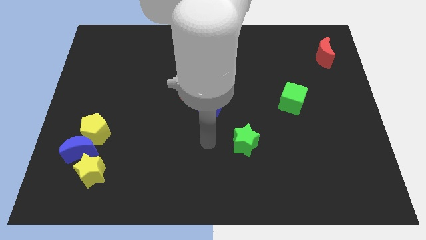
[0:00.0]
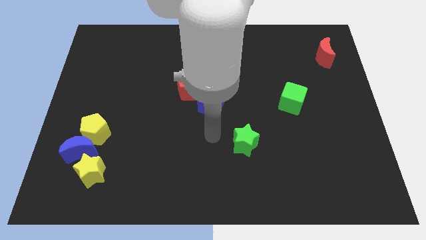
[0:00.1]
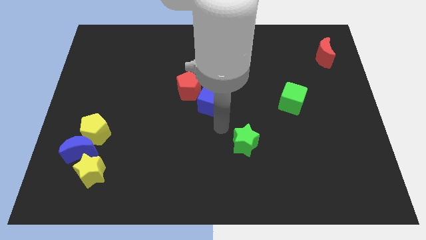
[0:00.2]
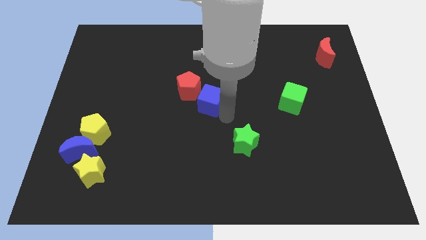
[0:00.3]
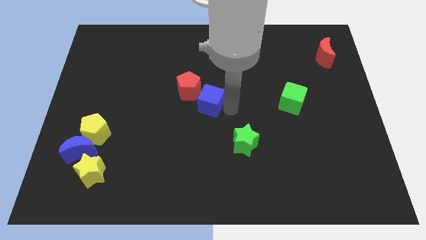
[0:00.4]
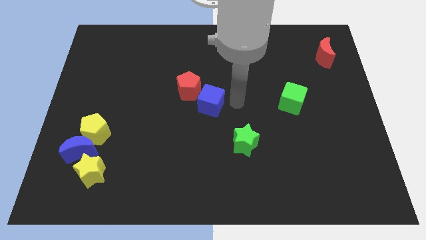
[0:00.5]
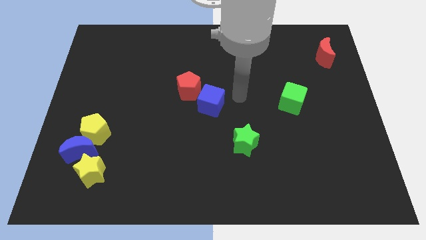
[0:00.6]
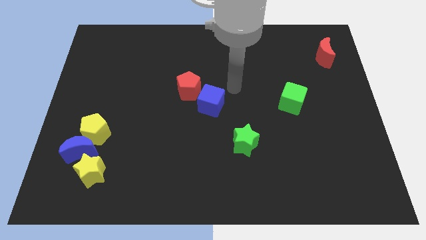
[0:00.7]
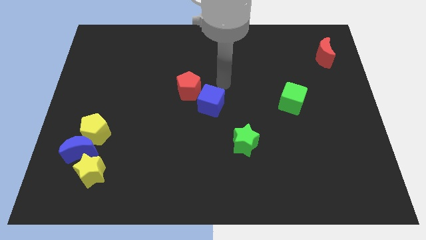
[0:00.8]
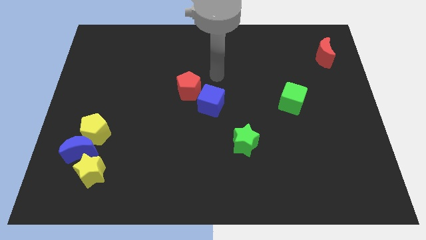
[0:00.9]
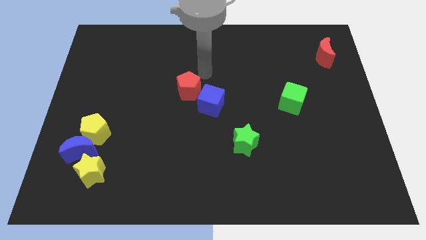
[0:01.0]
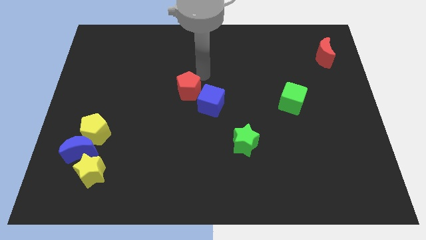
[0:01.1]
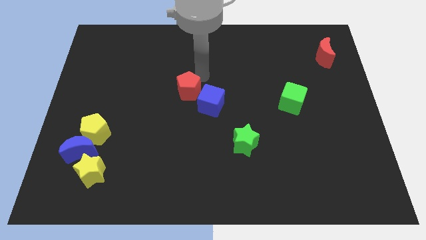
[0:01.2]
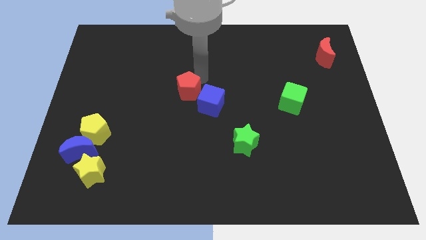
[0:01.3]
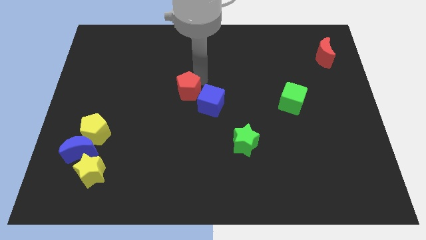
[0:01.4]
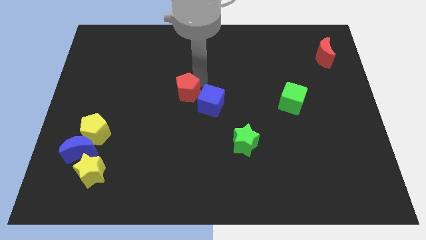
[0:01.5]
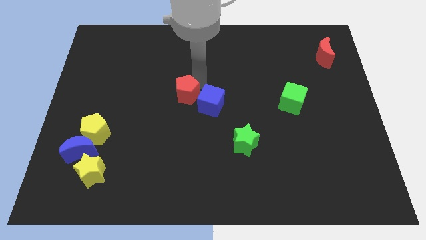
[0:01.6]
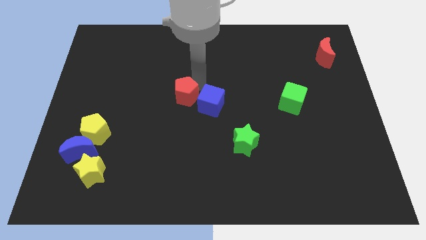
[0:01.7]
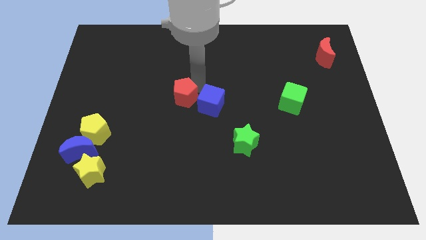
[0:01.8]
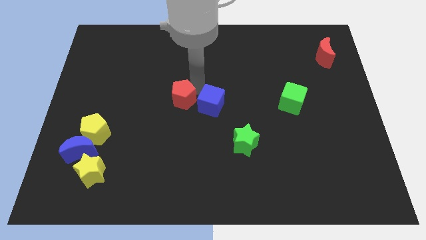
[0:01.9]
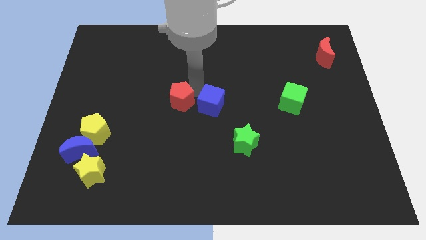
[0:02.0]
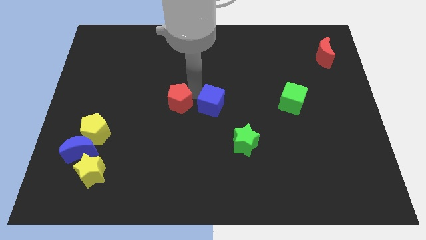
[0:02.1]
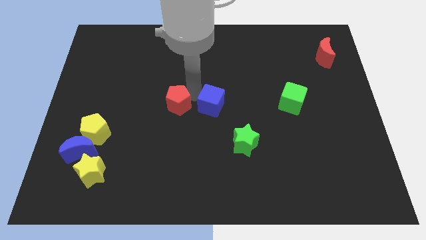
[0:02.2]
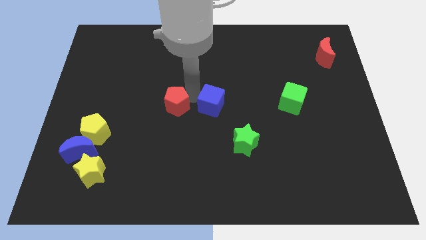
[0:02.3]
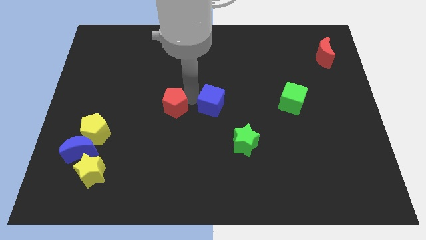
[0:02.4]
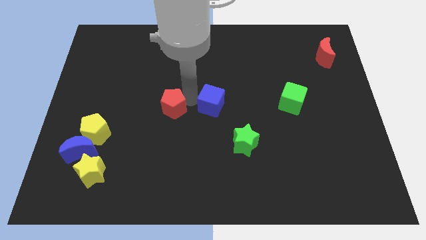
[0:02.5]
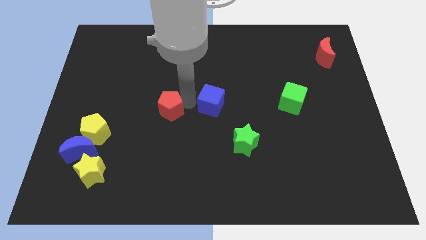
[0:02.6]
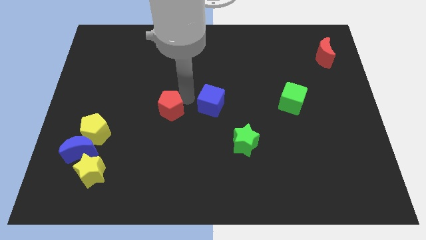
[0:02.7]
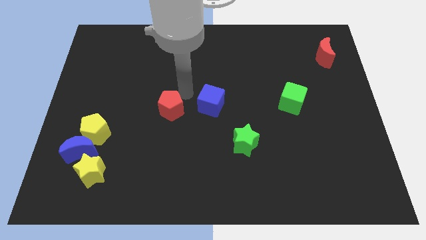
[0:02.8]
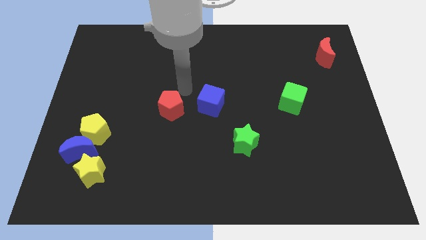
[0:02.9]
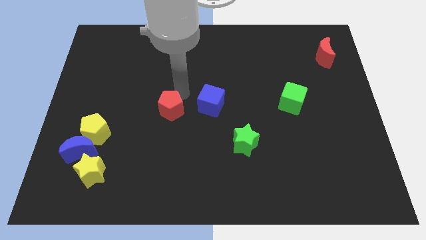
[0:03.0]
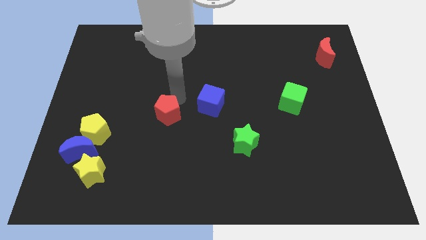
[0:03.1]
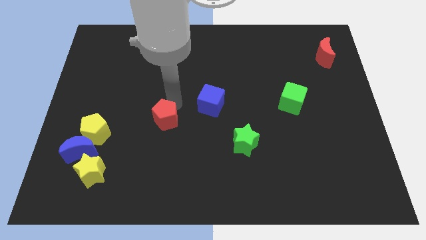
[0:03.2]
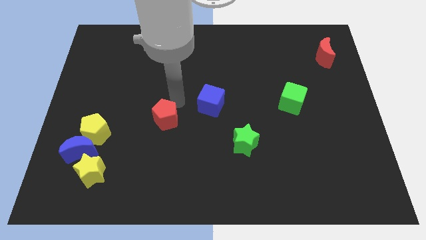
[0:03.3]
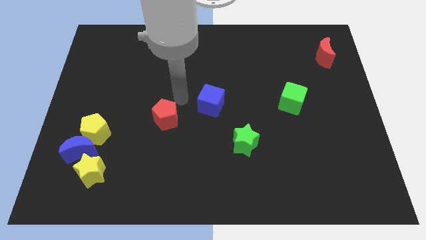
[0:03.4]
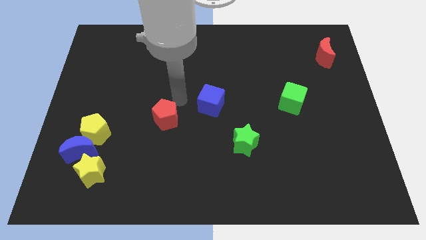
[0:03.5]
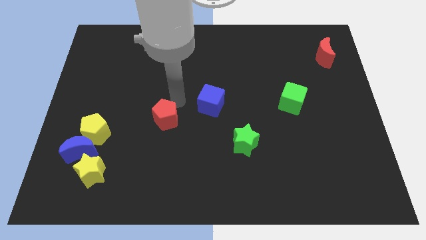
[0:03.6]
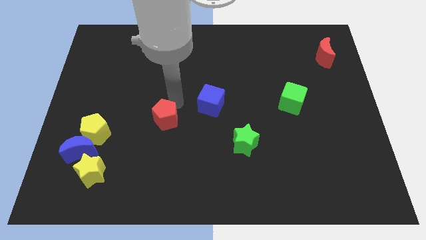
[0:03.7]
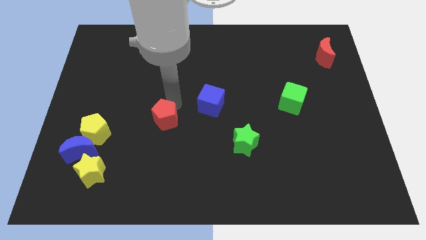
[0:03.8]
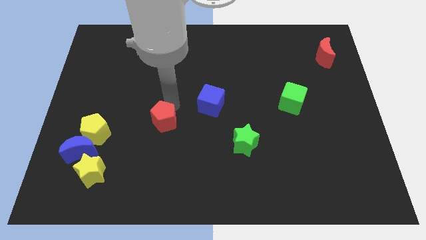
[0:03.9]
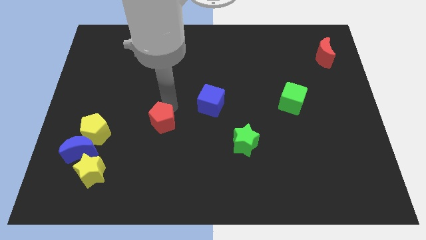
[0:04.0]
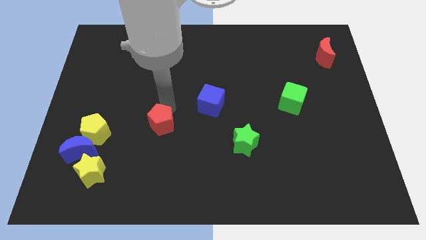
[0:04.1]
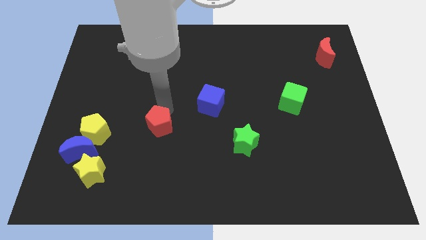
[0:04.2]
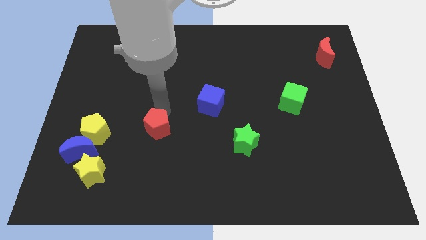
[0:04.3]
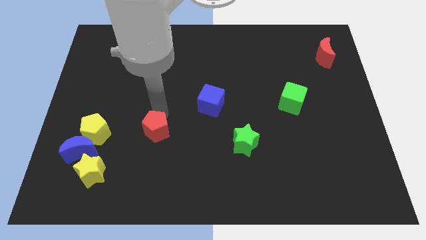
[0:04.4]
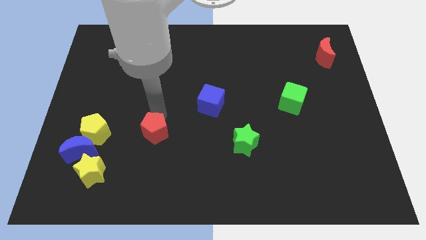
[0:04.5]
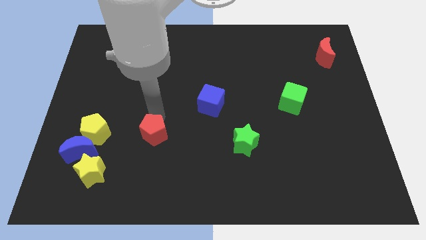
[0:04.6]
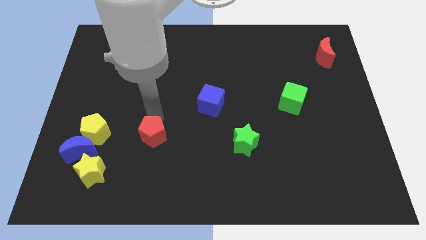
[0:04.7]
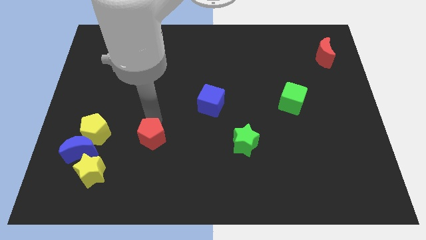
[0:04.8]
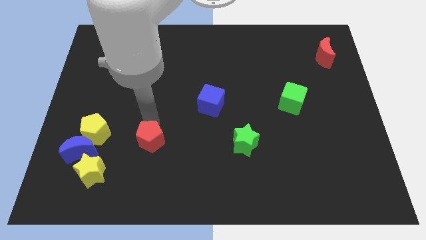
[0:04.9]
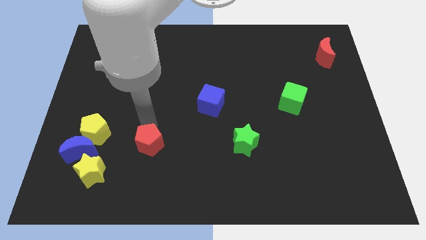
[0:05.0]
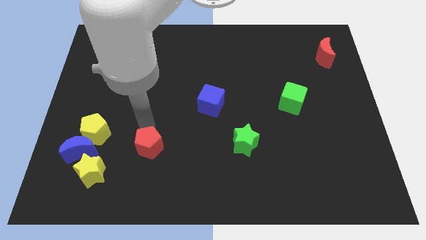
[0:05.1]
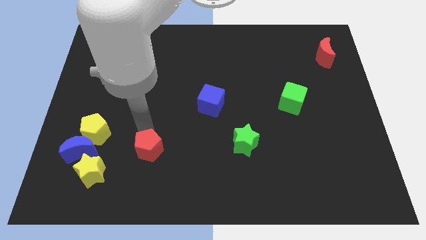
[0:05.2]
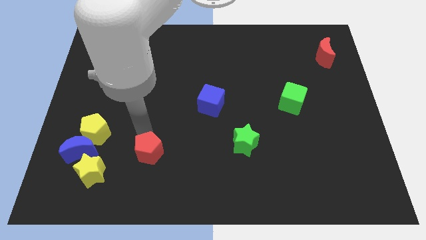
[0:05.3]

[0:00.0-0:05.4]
slide the red pentagon right of the yellow star

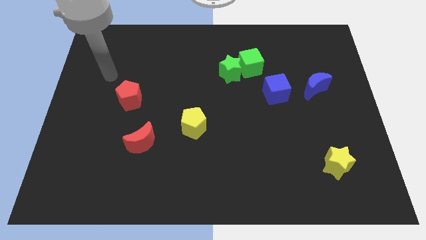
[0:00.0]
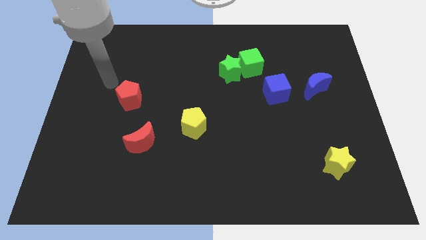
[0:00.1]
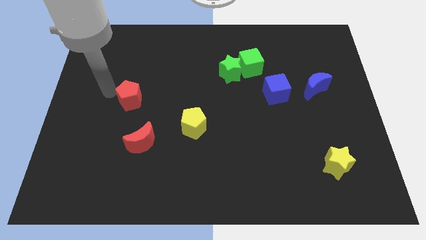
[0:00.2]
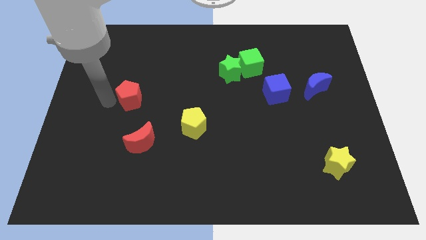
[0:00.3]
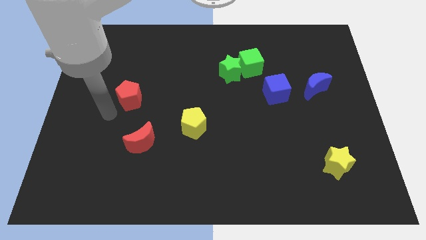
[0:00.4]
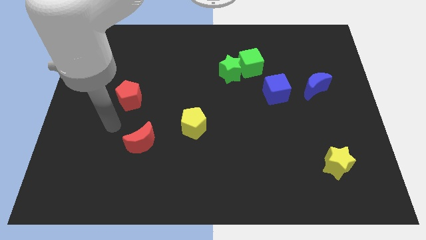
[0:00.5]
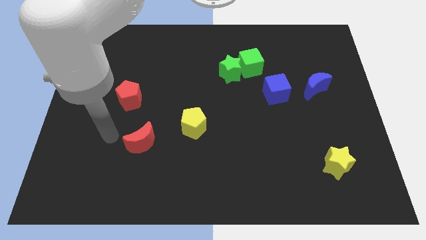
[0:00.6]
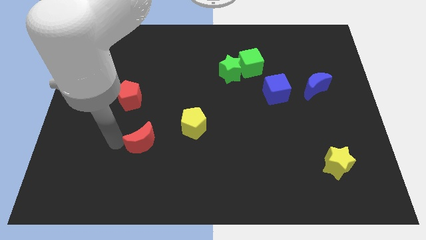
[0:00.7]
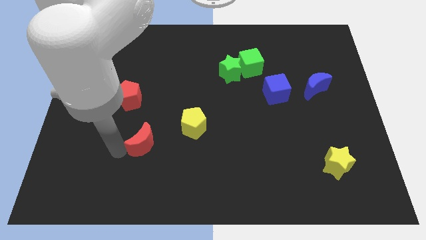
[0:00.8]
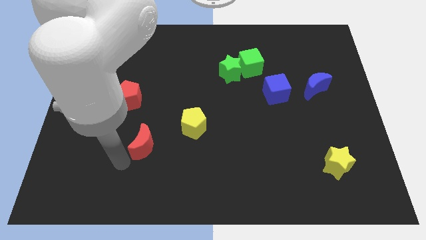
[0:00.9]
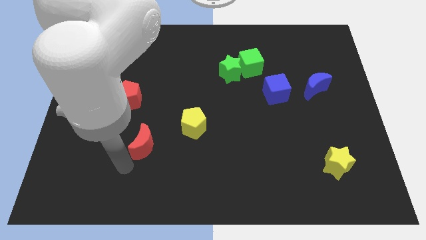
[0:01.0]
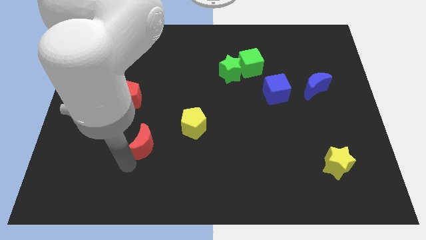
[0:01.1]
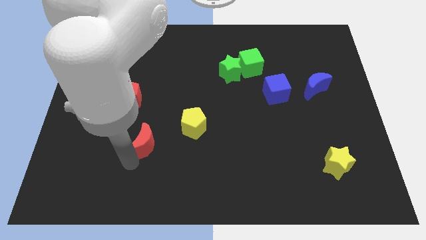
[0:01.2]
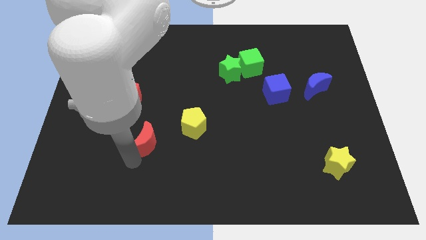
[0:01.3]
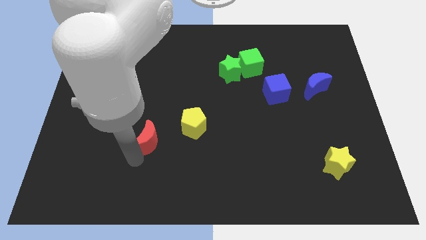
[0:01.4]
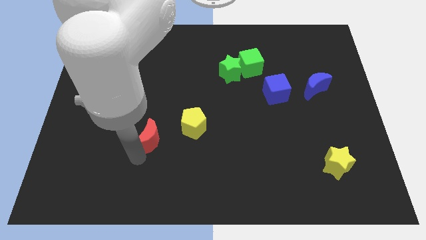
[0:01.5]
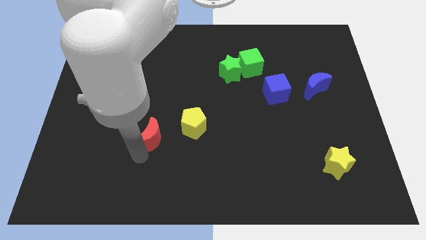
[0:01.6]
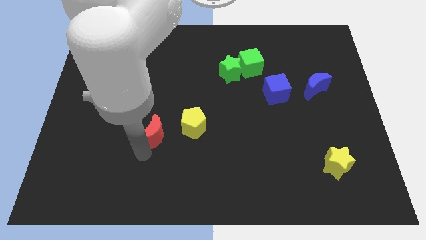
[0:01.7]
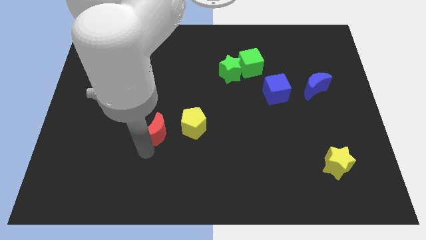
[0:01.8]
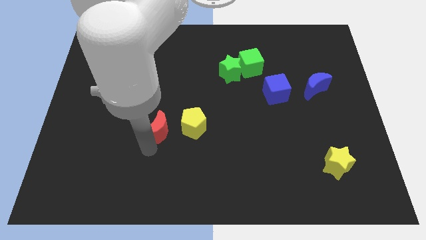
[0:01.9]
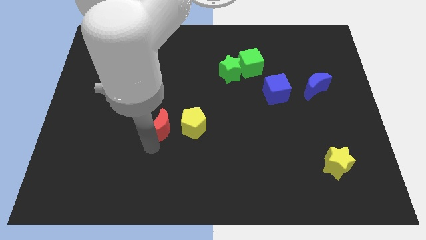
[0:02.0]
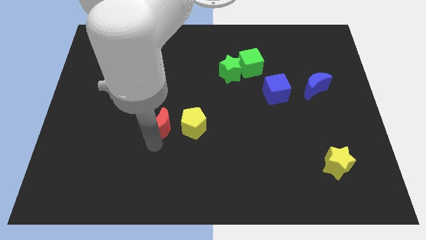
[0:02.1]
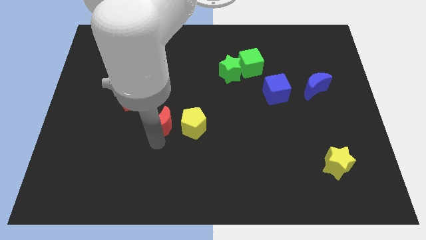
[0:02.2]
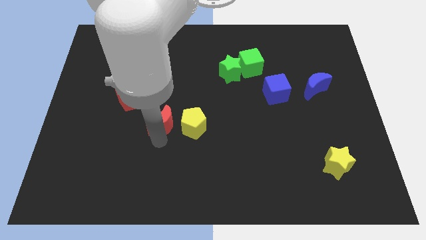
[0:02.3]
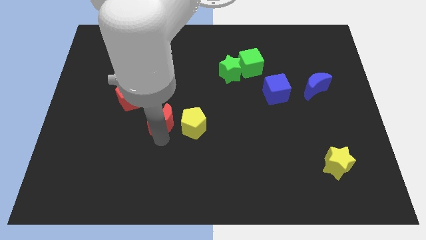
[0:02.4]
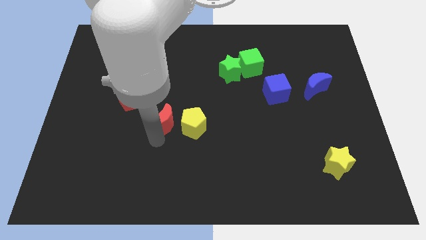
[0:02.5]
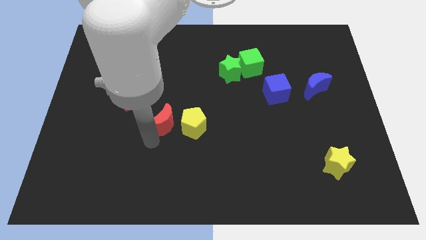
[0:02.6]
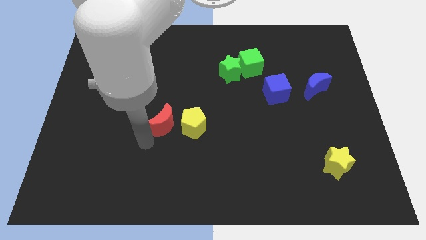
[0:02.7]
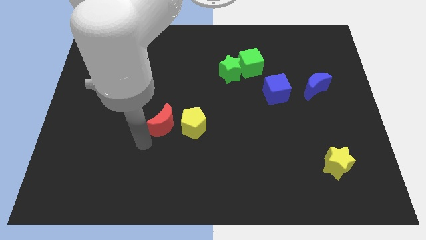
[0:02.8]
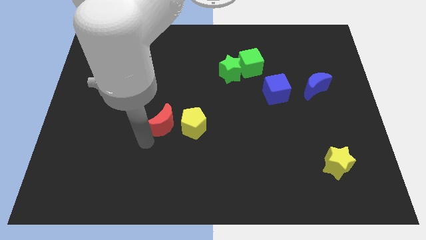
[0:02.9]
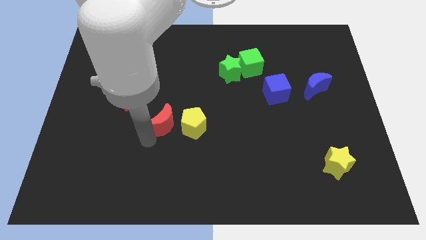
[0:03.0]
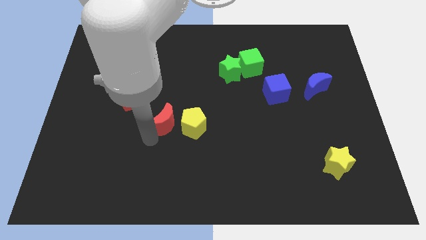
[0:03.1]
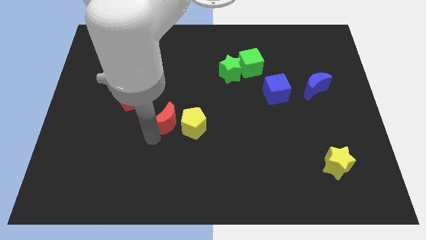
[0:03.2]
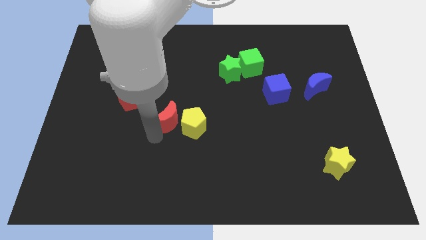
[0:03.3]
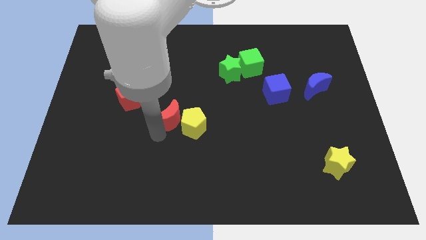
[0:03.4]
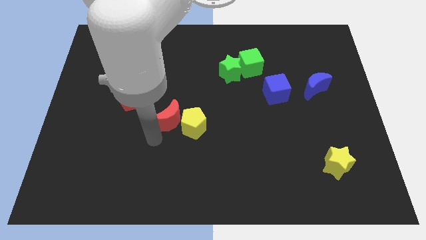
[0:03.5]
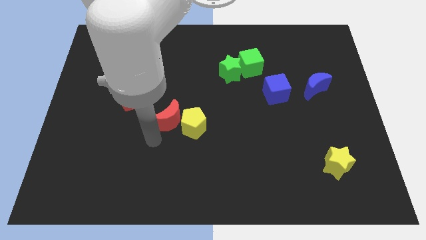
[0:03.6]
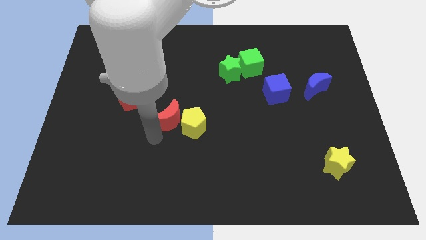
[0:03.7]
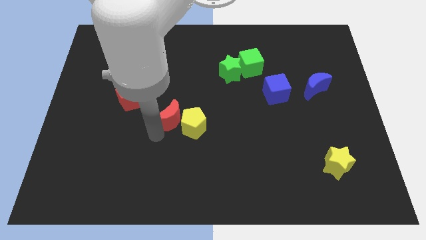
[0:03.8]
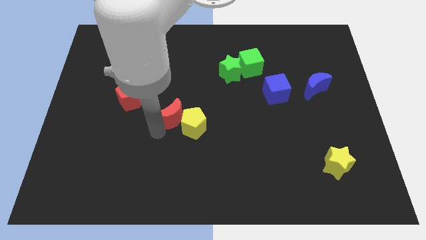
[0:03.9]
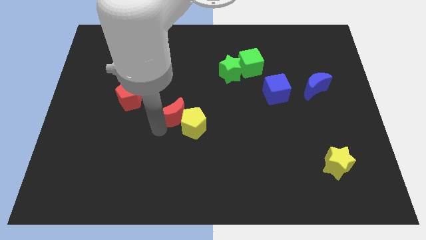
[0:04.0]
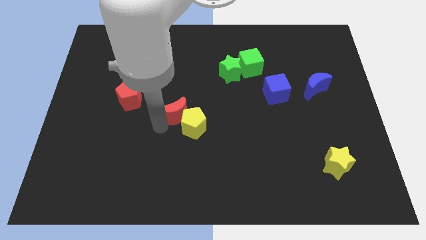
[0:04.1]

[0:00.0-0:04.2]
move the red moon to the top of the yellow pentagon
